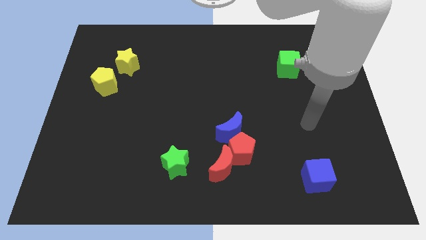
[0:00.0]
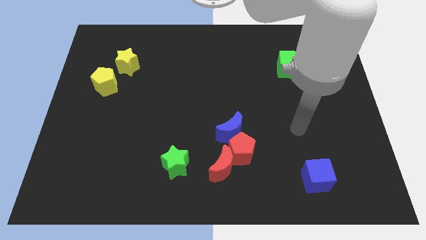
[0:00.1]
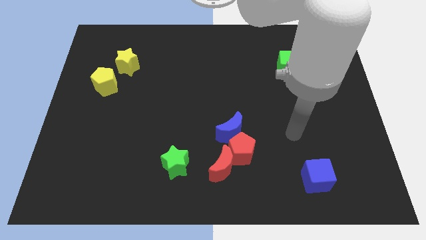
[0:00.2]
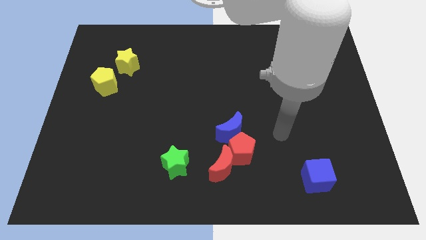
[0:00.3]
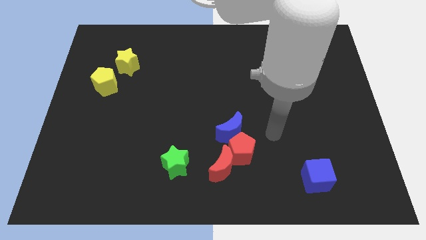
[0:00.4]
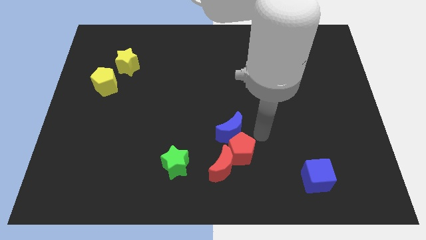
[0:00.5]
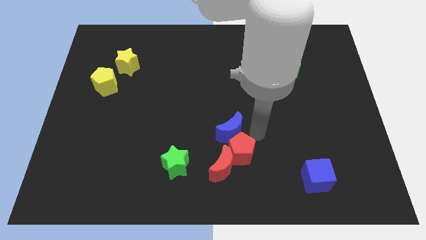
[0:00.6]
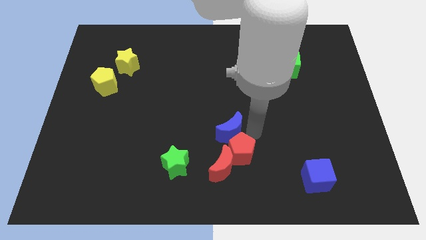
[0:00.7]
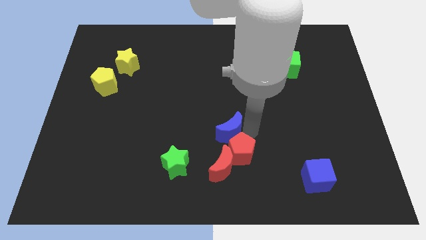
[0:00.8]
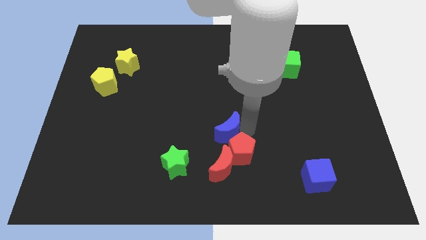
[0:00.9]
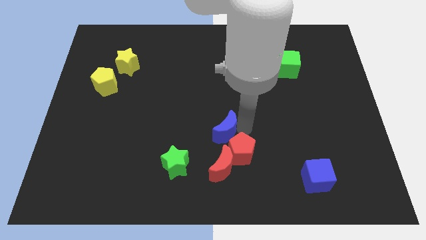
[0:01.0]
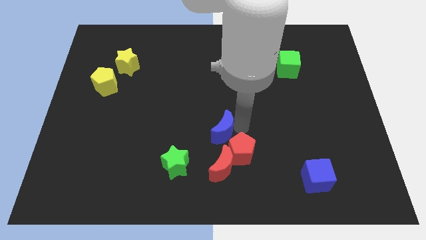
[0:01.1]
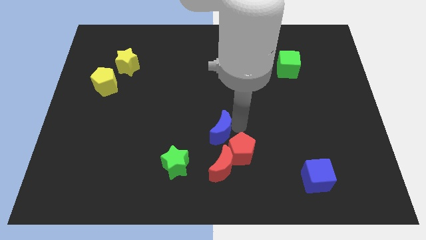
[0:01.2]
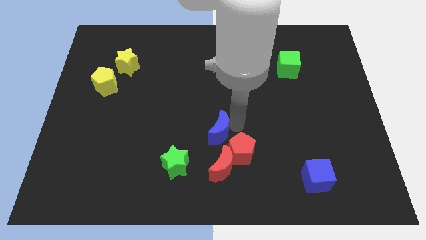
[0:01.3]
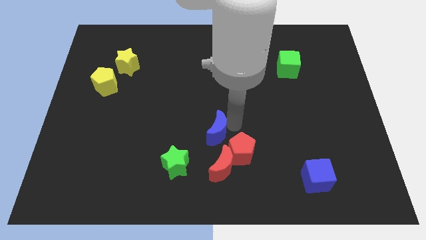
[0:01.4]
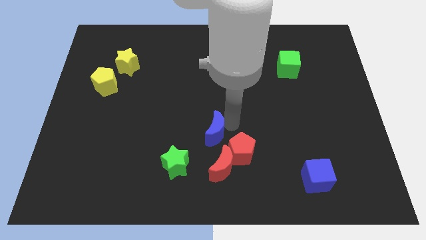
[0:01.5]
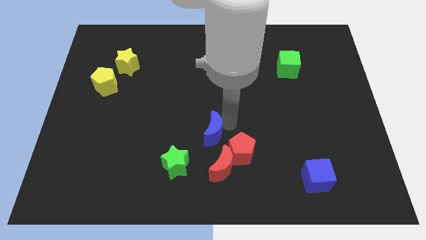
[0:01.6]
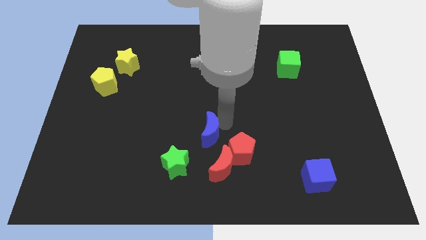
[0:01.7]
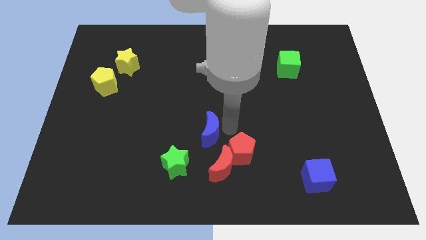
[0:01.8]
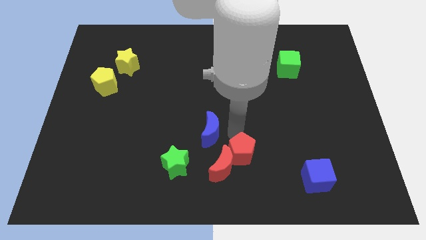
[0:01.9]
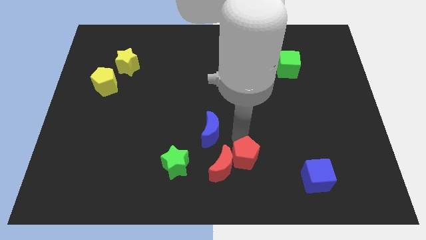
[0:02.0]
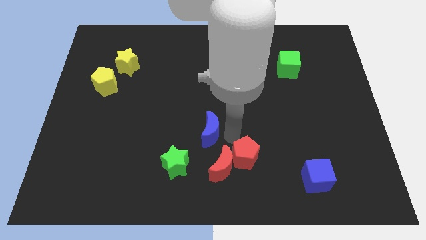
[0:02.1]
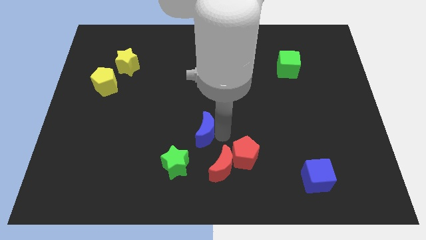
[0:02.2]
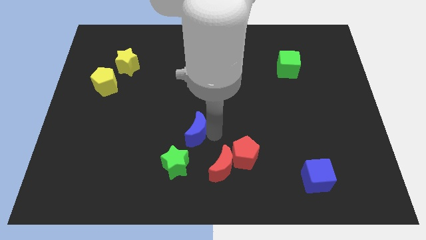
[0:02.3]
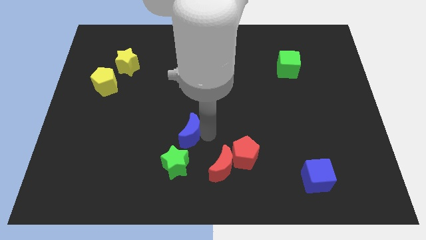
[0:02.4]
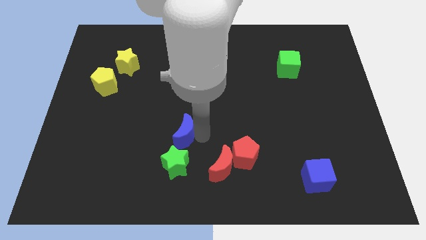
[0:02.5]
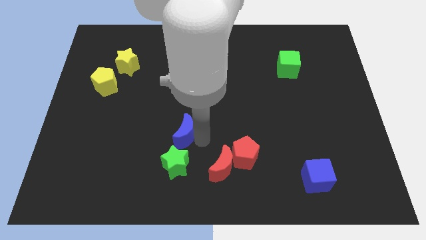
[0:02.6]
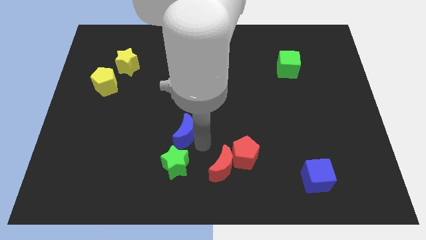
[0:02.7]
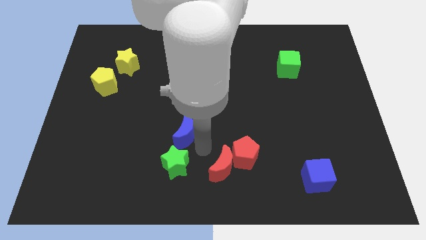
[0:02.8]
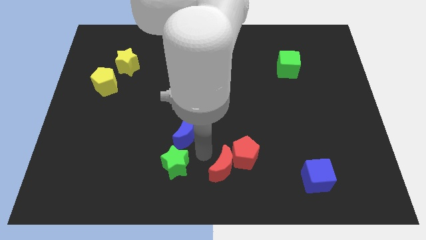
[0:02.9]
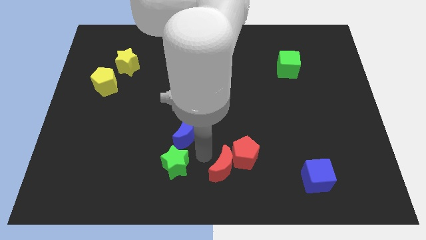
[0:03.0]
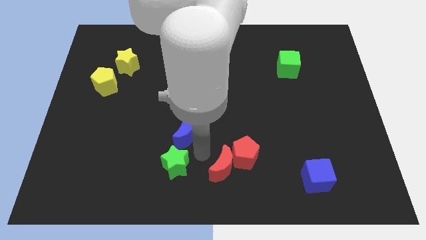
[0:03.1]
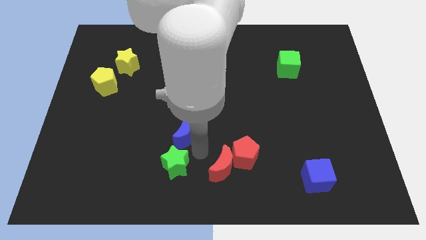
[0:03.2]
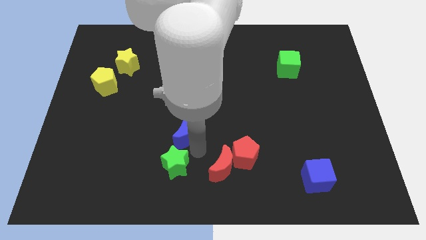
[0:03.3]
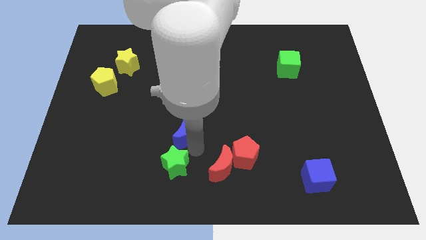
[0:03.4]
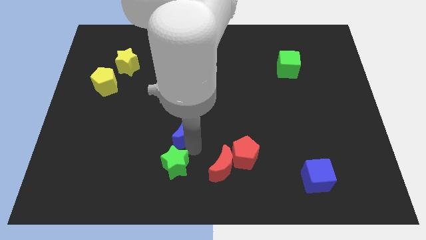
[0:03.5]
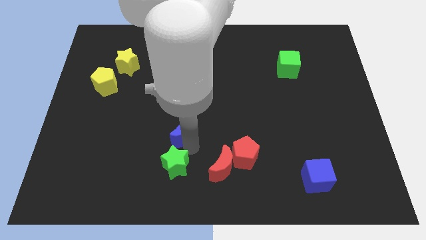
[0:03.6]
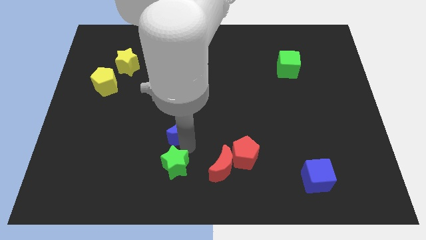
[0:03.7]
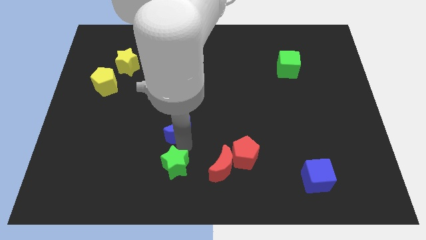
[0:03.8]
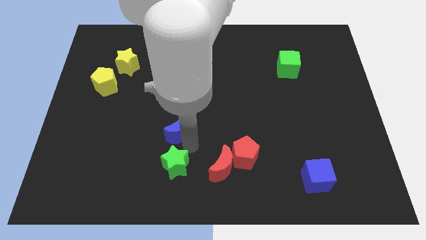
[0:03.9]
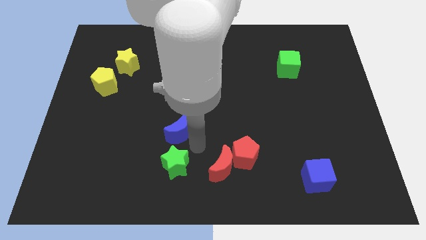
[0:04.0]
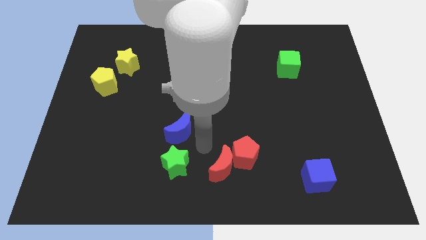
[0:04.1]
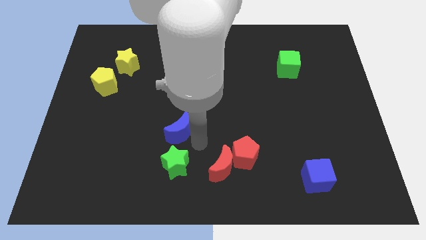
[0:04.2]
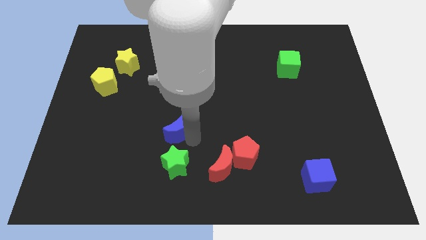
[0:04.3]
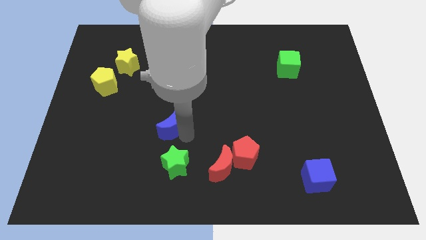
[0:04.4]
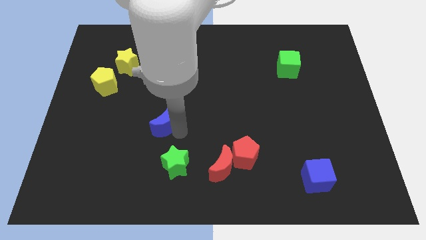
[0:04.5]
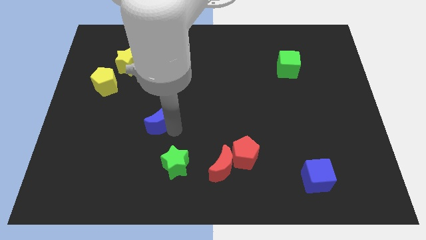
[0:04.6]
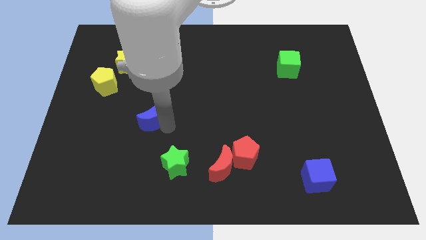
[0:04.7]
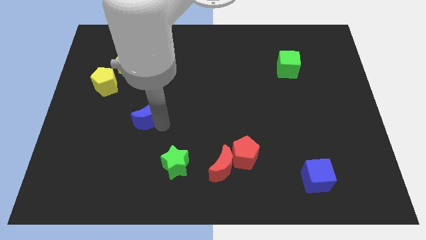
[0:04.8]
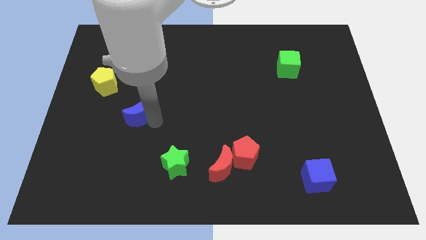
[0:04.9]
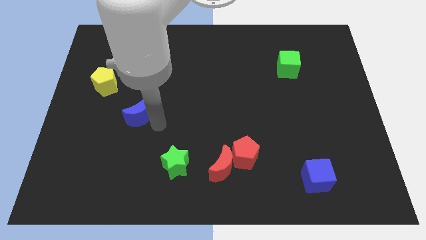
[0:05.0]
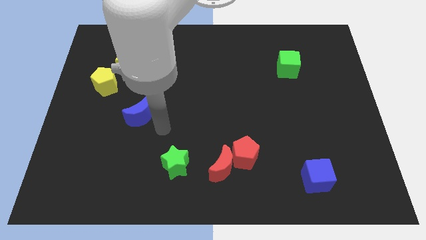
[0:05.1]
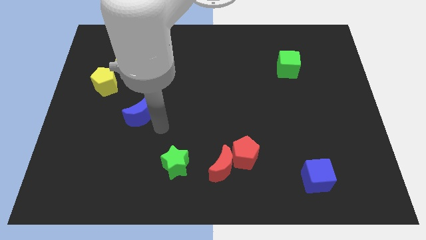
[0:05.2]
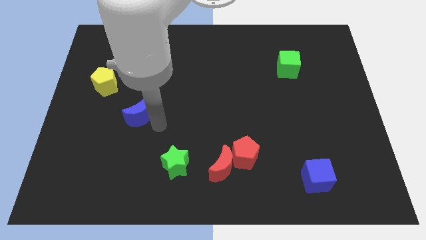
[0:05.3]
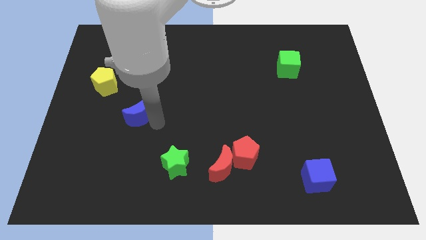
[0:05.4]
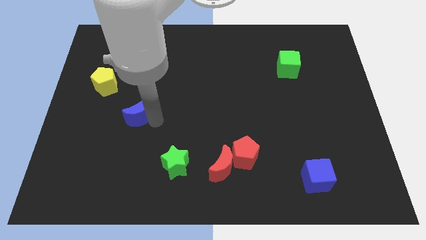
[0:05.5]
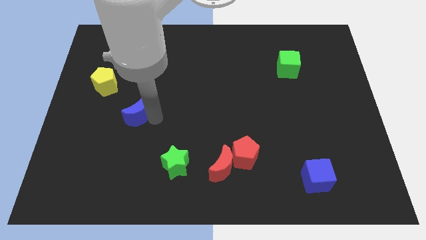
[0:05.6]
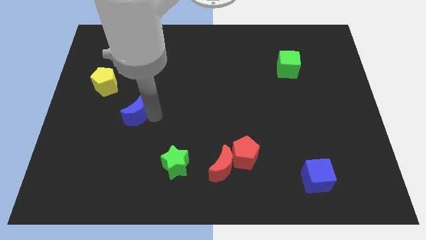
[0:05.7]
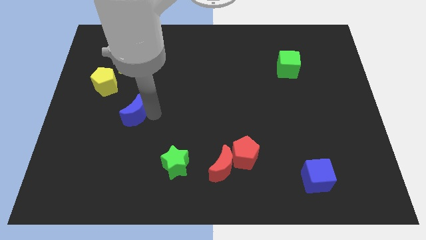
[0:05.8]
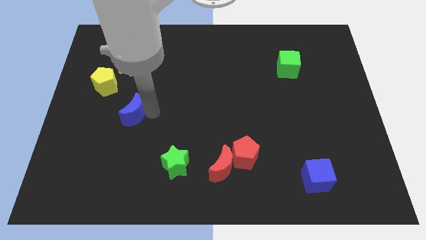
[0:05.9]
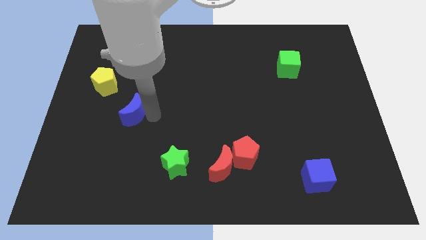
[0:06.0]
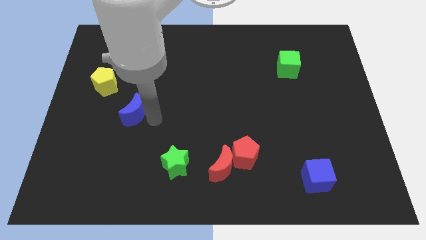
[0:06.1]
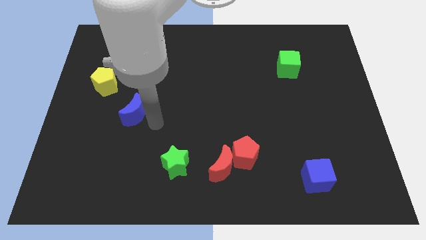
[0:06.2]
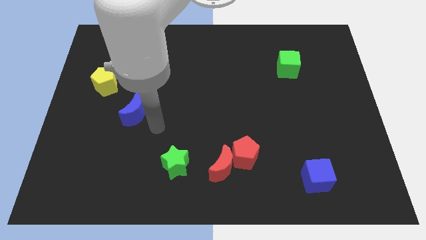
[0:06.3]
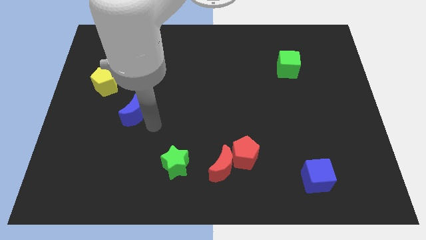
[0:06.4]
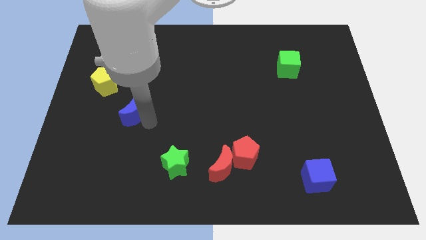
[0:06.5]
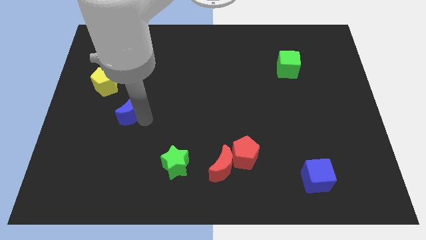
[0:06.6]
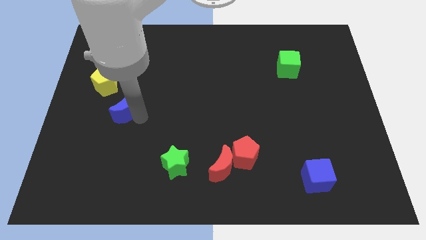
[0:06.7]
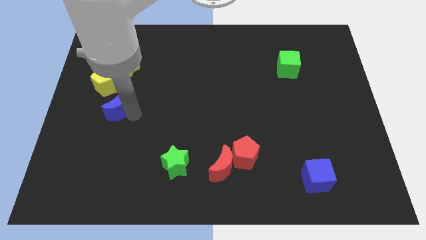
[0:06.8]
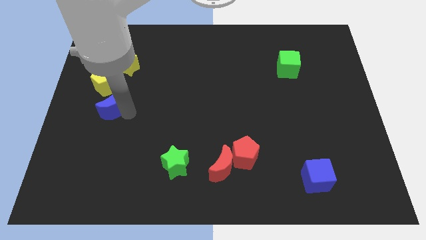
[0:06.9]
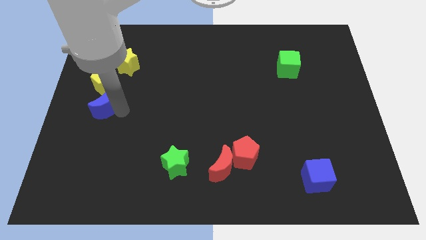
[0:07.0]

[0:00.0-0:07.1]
slide the blue moon to the left side of the board
